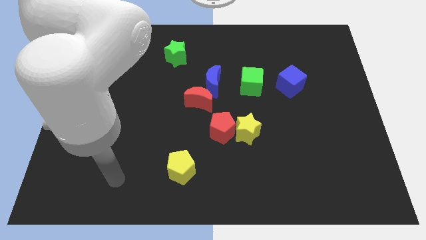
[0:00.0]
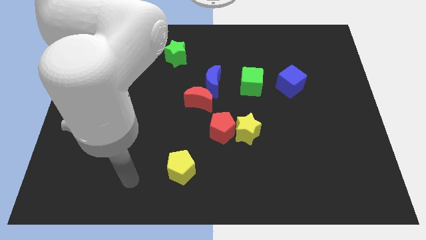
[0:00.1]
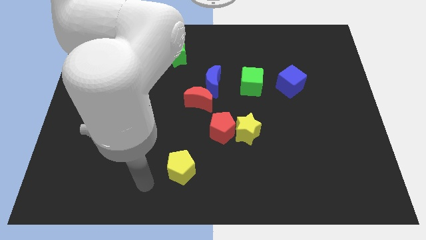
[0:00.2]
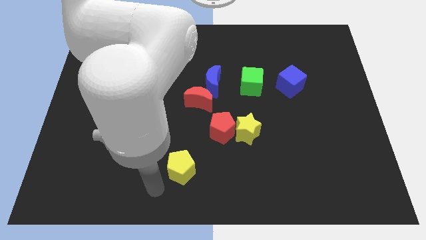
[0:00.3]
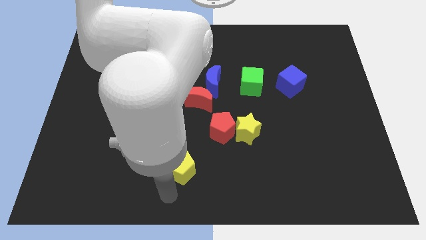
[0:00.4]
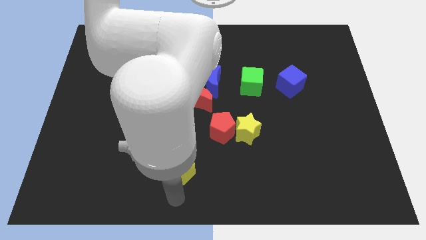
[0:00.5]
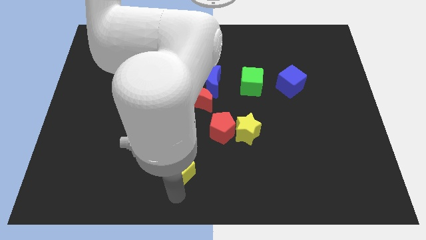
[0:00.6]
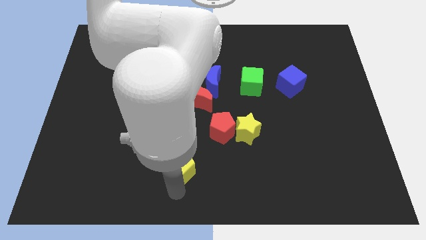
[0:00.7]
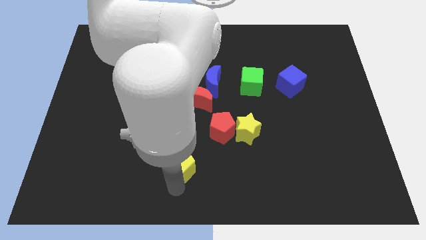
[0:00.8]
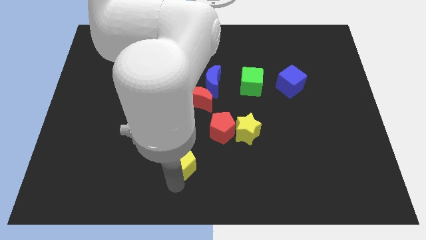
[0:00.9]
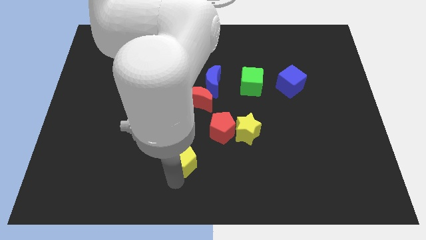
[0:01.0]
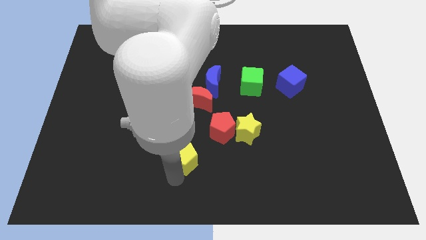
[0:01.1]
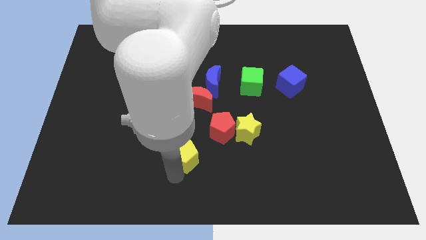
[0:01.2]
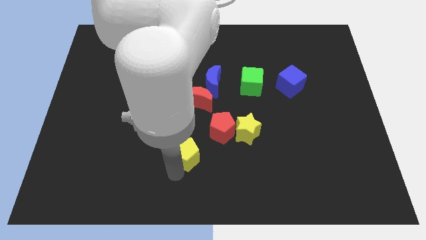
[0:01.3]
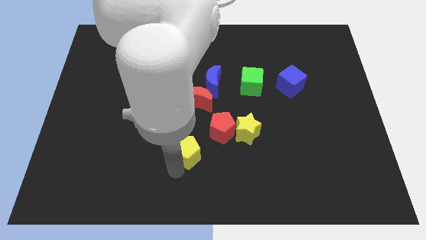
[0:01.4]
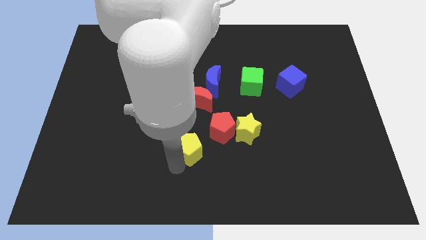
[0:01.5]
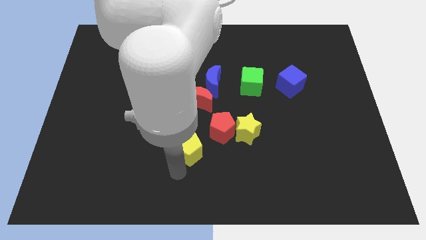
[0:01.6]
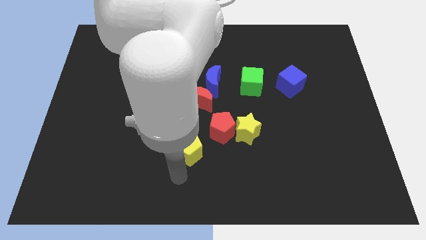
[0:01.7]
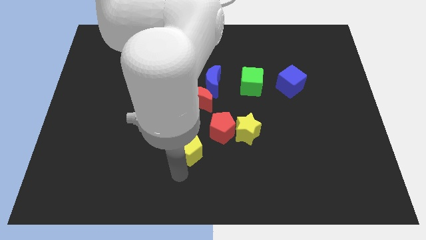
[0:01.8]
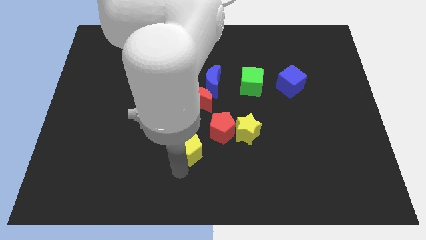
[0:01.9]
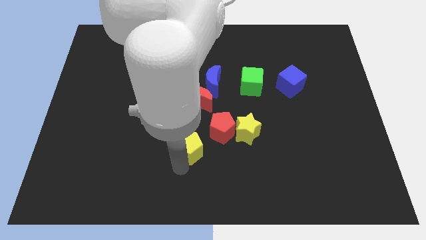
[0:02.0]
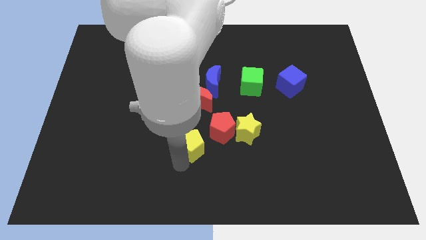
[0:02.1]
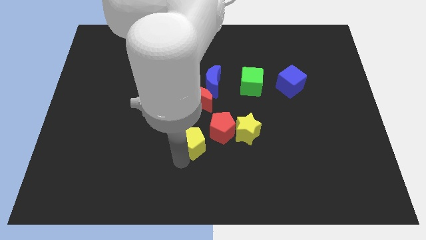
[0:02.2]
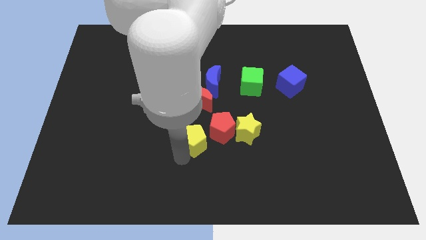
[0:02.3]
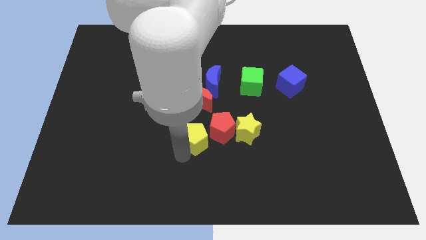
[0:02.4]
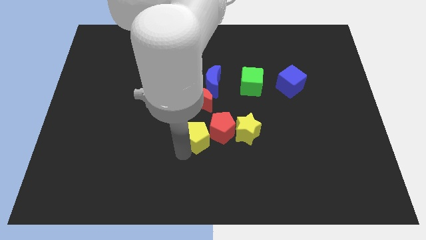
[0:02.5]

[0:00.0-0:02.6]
slightly push the yellow pentagon diagonally up and to the right

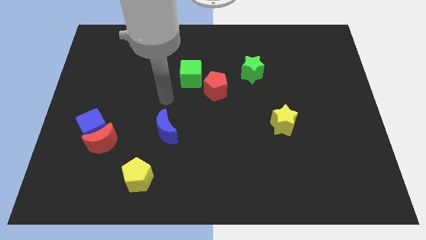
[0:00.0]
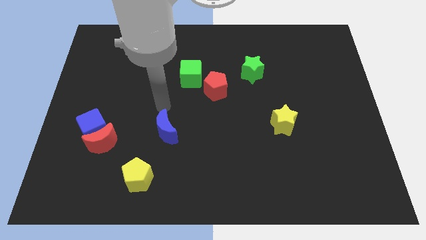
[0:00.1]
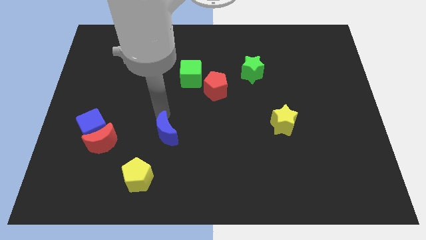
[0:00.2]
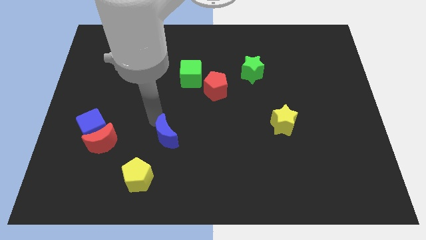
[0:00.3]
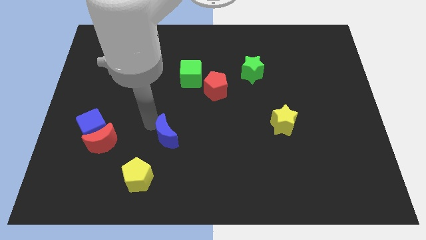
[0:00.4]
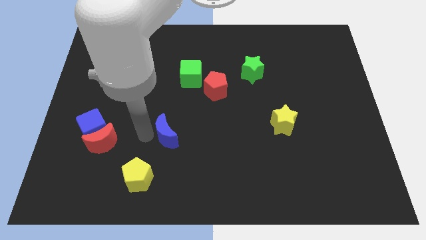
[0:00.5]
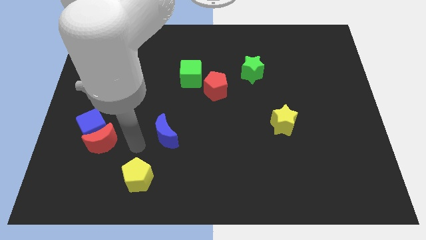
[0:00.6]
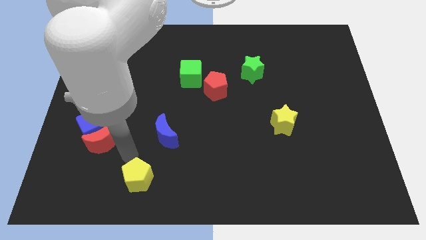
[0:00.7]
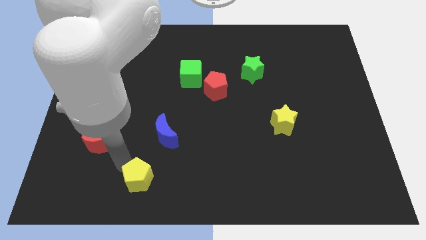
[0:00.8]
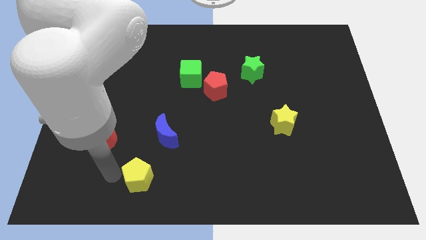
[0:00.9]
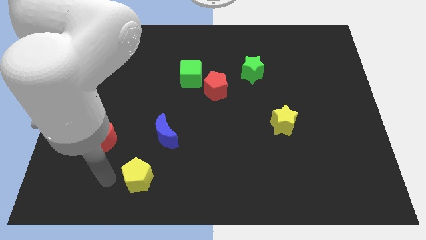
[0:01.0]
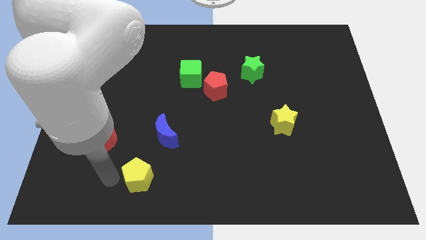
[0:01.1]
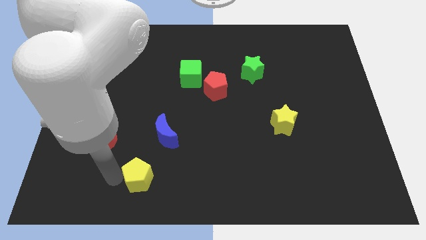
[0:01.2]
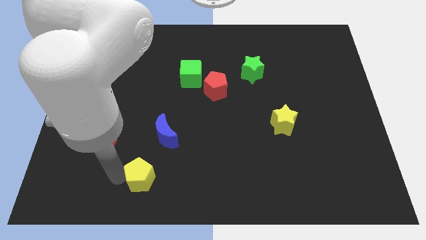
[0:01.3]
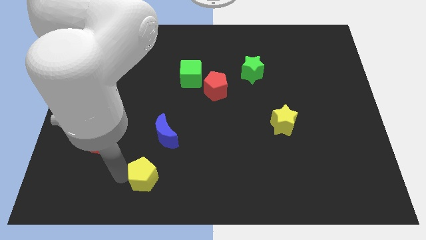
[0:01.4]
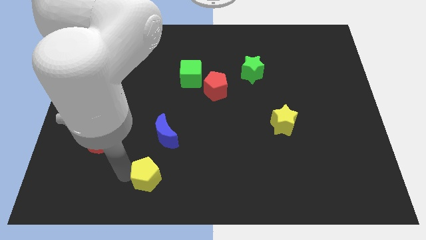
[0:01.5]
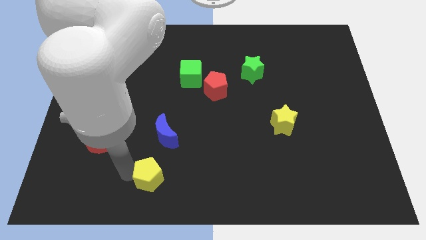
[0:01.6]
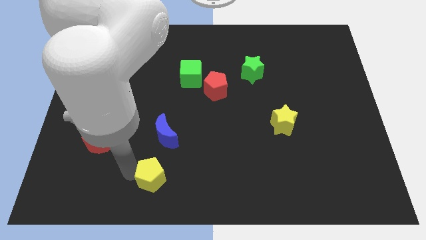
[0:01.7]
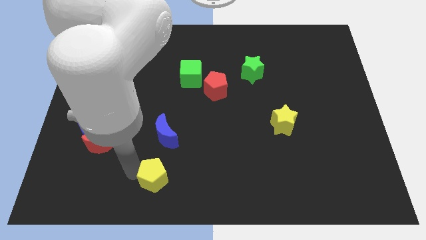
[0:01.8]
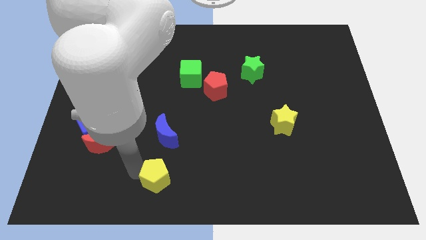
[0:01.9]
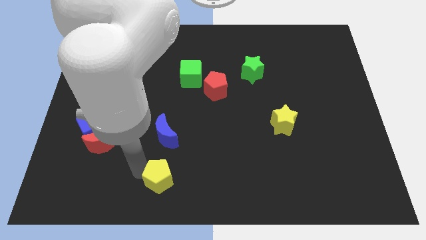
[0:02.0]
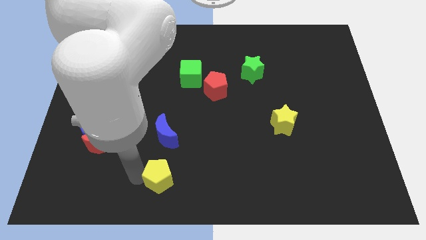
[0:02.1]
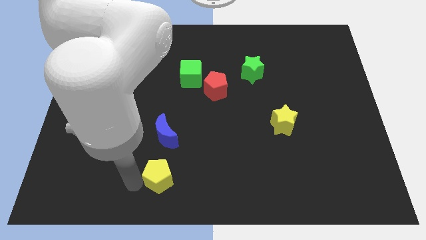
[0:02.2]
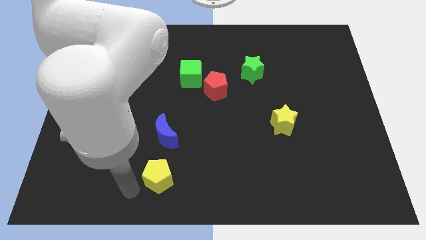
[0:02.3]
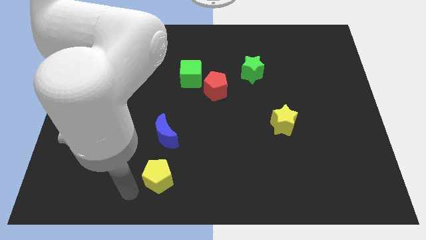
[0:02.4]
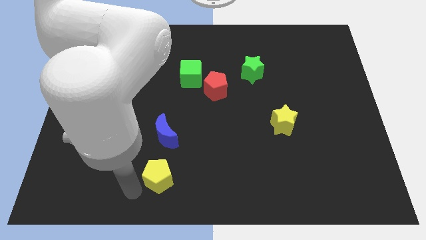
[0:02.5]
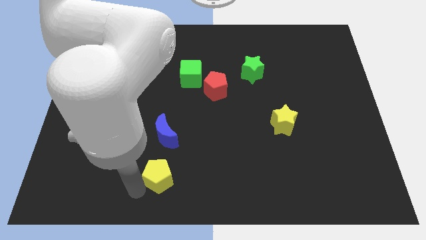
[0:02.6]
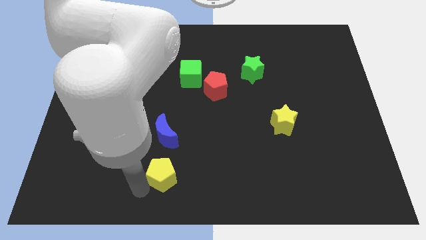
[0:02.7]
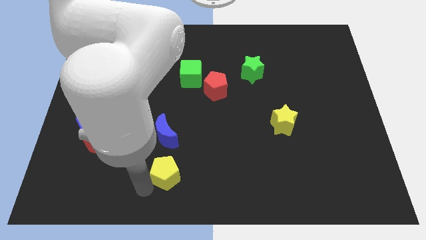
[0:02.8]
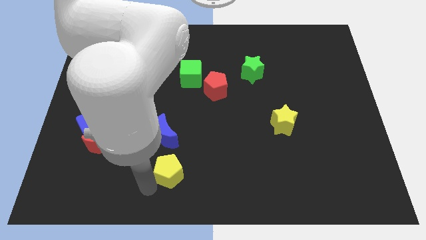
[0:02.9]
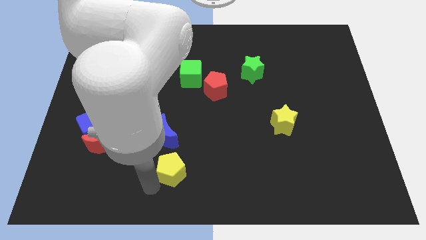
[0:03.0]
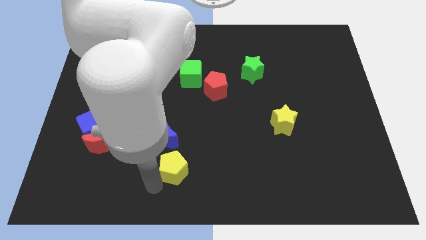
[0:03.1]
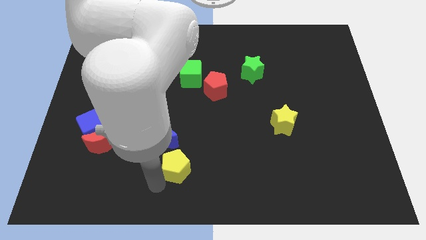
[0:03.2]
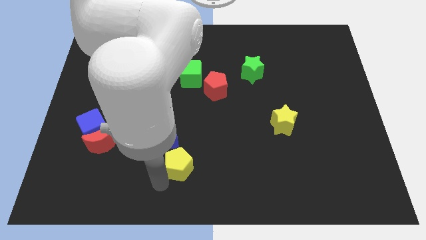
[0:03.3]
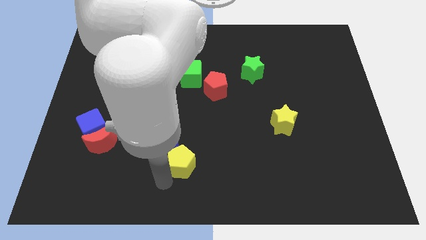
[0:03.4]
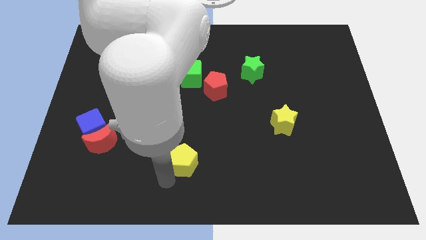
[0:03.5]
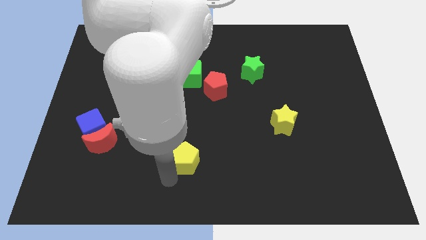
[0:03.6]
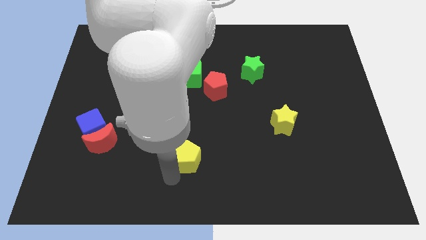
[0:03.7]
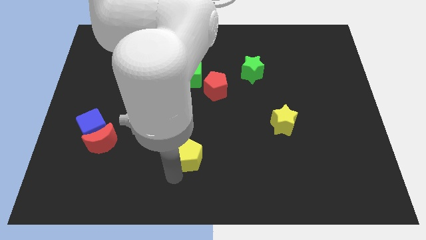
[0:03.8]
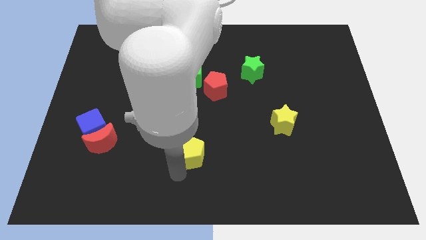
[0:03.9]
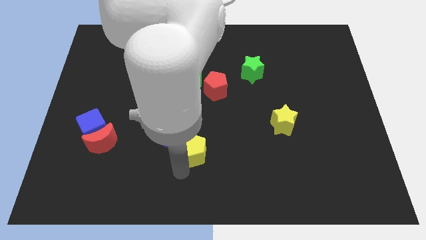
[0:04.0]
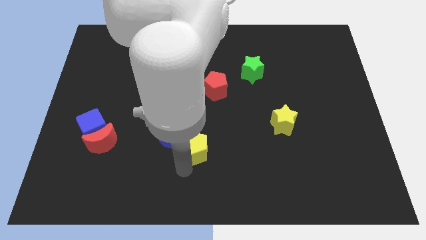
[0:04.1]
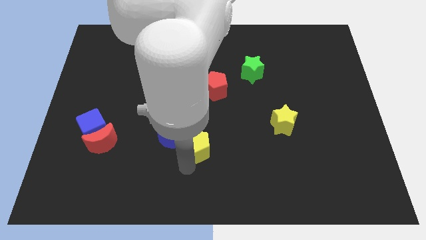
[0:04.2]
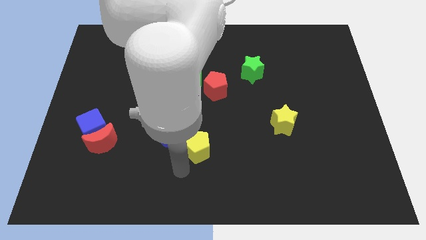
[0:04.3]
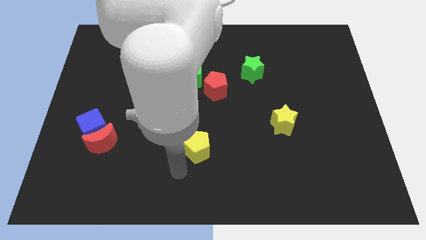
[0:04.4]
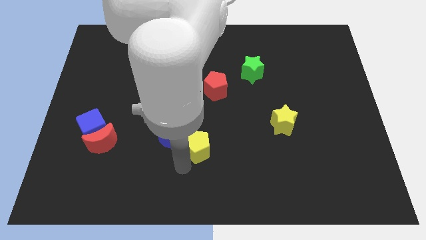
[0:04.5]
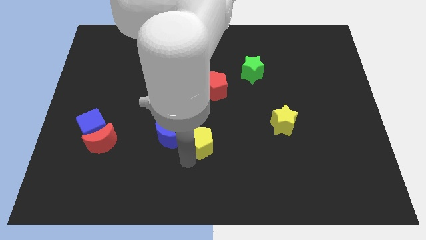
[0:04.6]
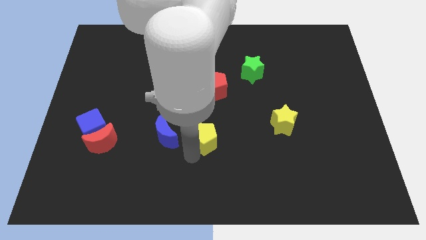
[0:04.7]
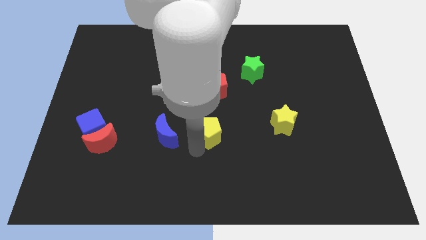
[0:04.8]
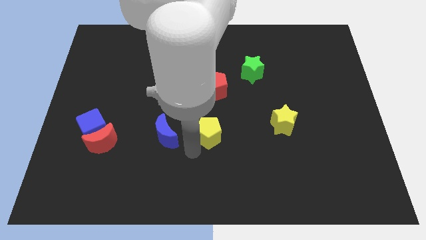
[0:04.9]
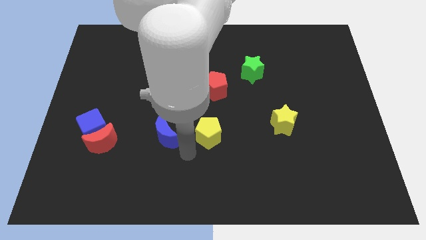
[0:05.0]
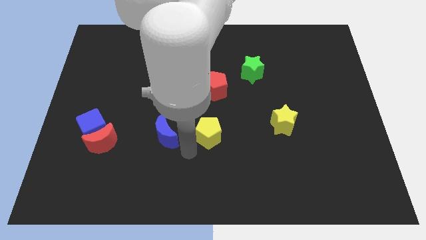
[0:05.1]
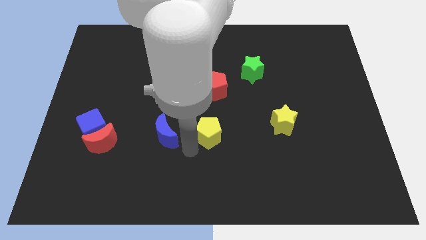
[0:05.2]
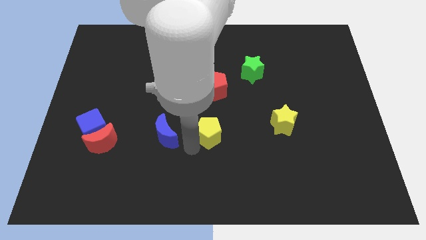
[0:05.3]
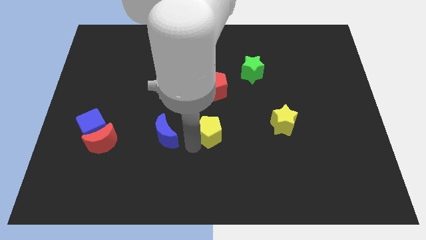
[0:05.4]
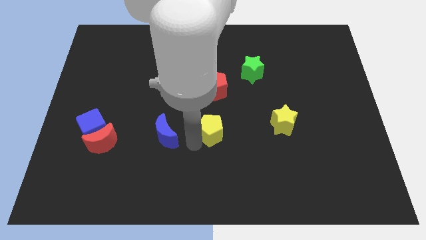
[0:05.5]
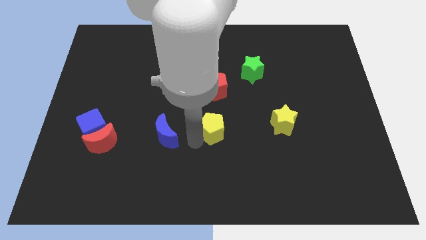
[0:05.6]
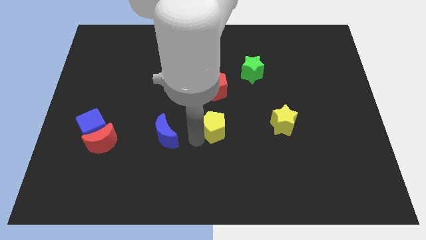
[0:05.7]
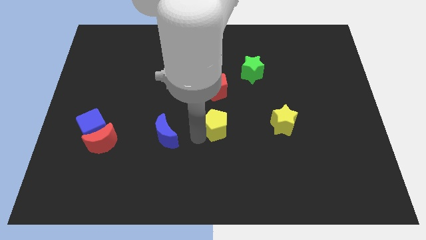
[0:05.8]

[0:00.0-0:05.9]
push the yellow pentagon diagonally upwards and to the right
